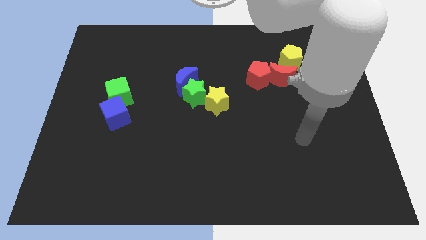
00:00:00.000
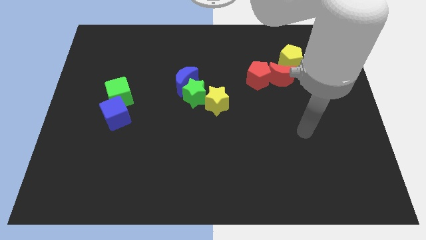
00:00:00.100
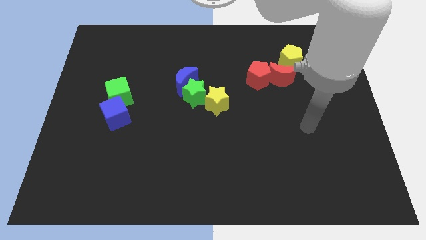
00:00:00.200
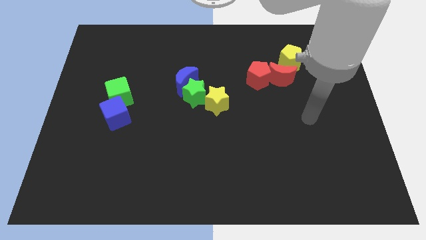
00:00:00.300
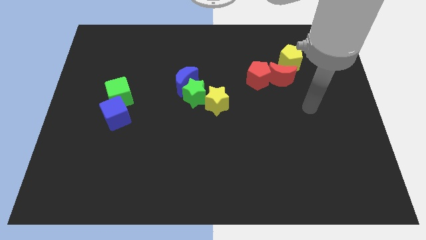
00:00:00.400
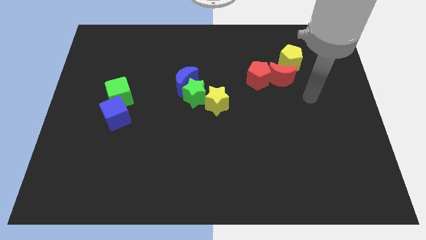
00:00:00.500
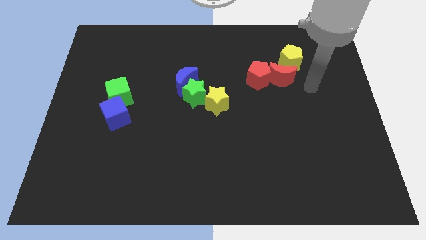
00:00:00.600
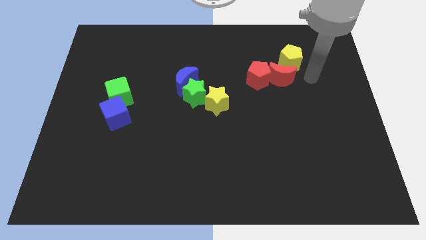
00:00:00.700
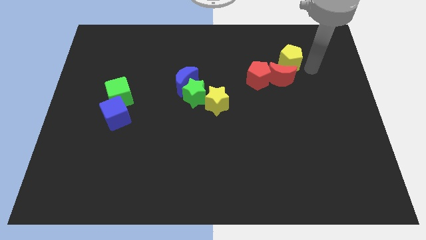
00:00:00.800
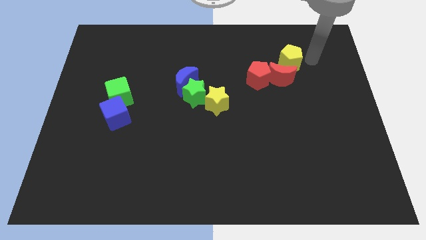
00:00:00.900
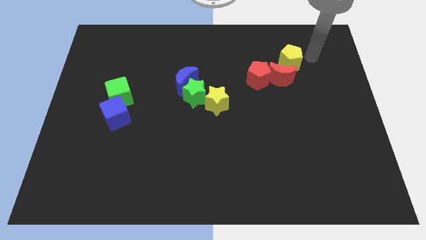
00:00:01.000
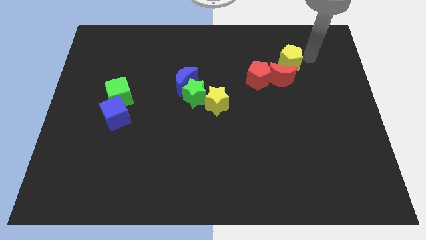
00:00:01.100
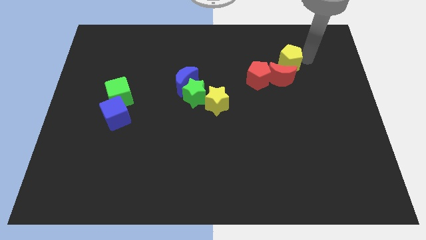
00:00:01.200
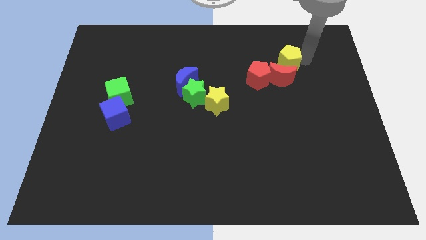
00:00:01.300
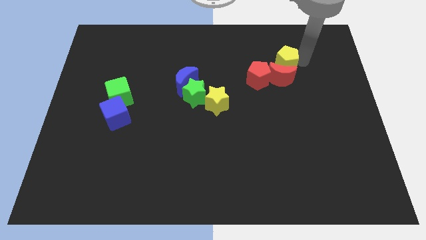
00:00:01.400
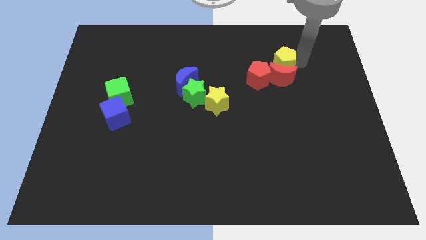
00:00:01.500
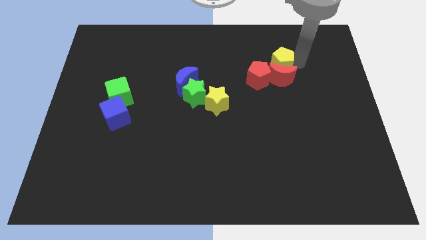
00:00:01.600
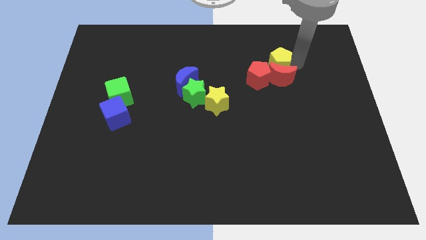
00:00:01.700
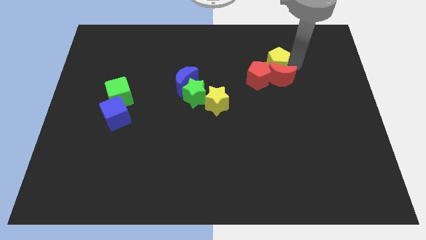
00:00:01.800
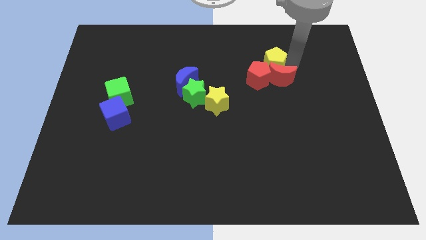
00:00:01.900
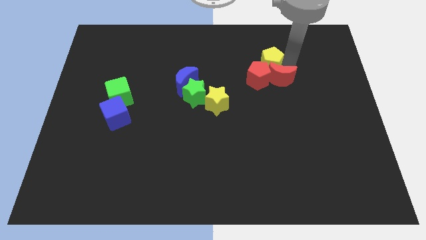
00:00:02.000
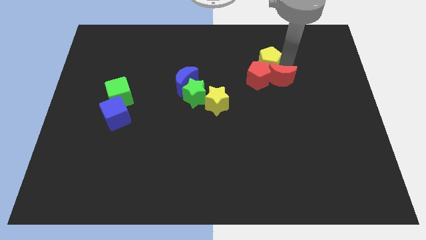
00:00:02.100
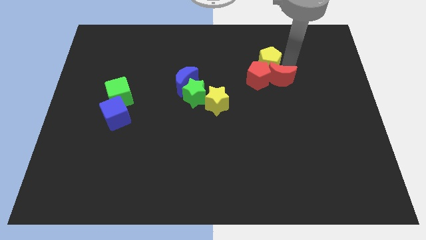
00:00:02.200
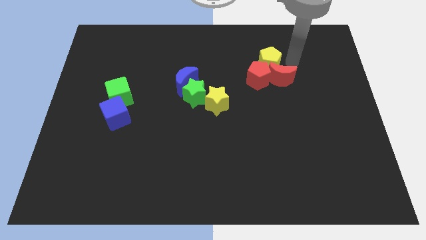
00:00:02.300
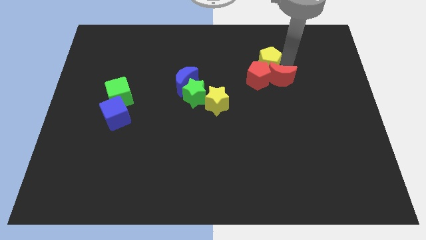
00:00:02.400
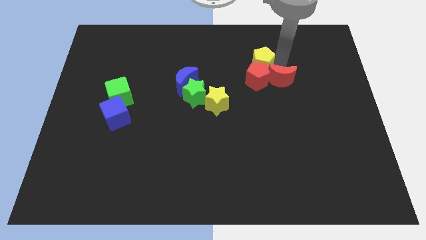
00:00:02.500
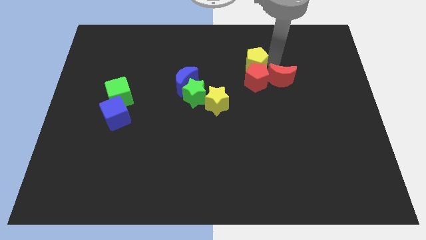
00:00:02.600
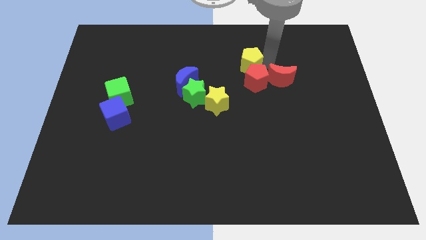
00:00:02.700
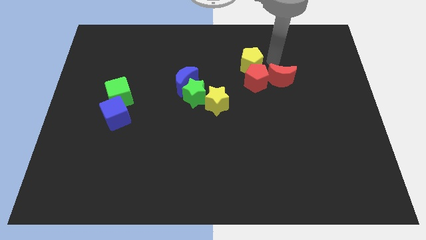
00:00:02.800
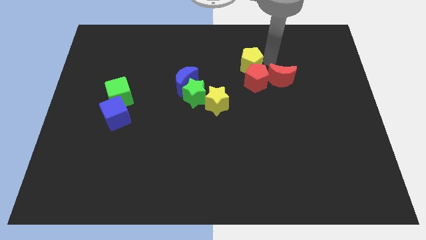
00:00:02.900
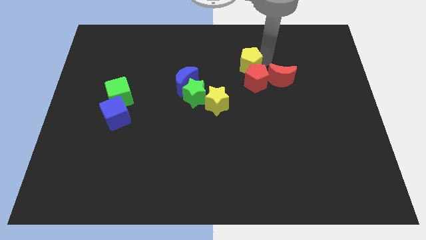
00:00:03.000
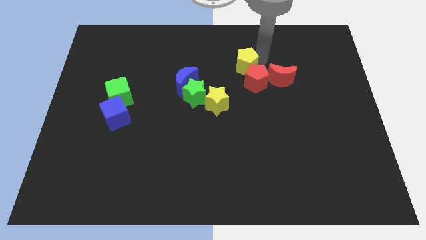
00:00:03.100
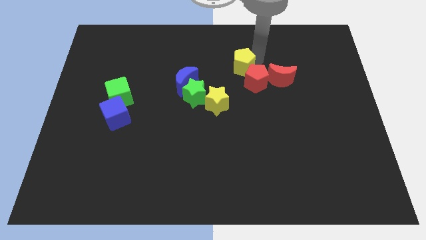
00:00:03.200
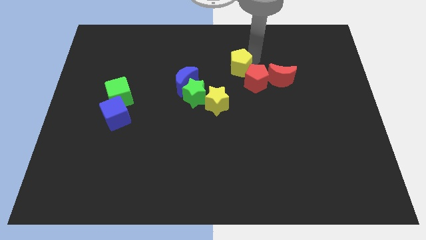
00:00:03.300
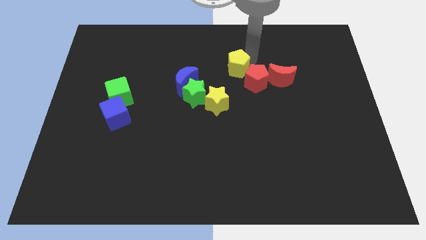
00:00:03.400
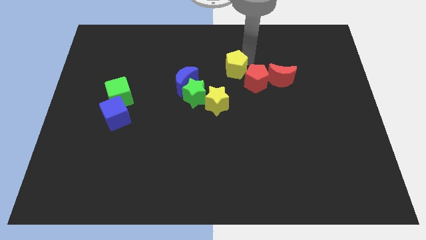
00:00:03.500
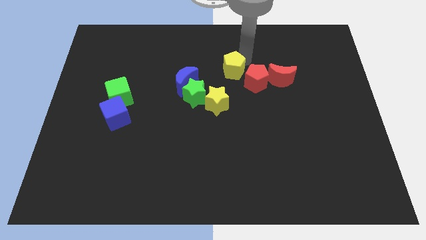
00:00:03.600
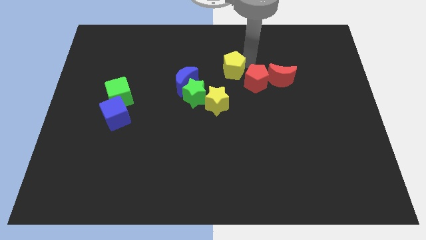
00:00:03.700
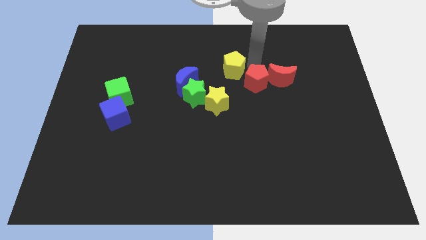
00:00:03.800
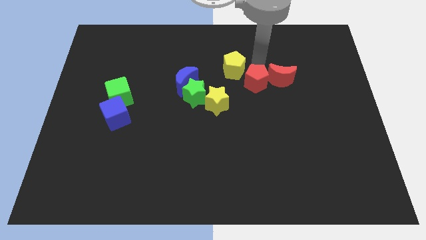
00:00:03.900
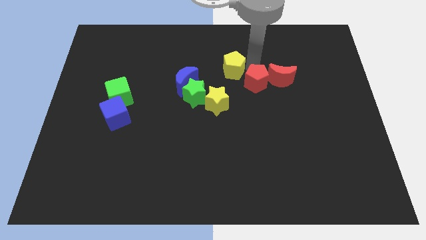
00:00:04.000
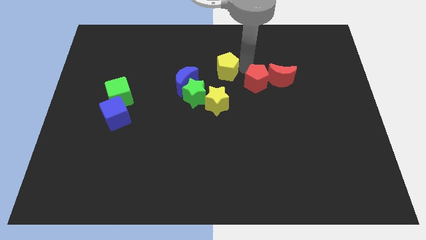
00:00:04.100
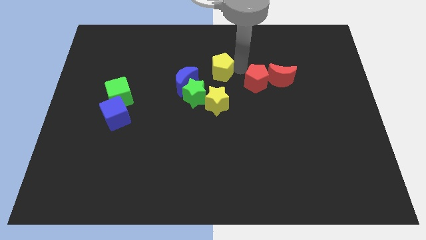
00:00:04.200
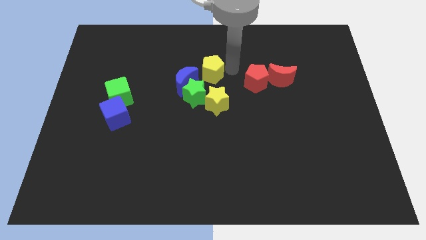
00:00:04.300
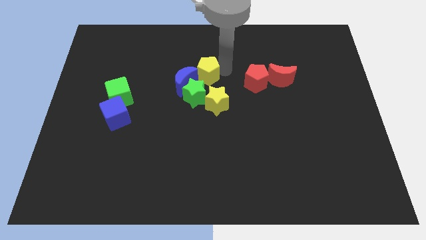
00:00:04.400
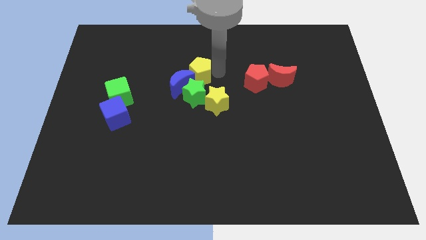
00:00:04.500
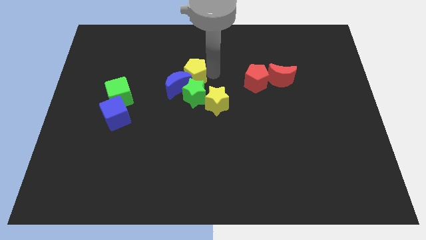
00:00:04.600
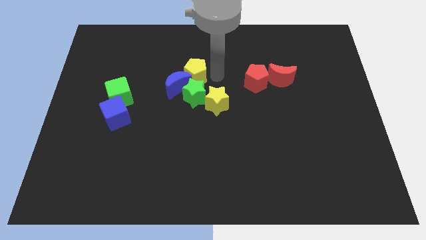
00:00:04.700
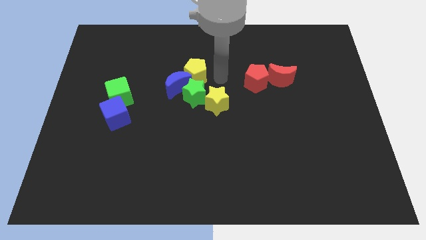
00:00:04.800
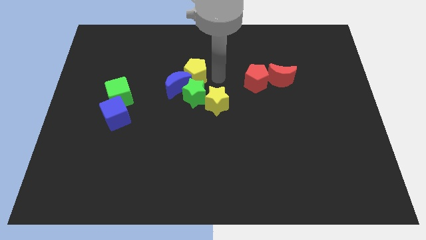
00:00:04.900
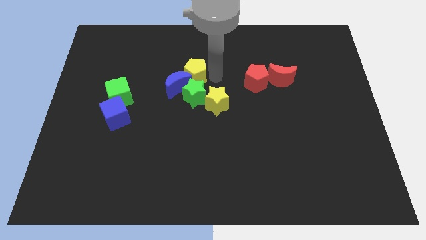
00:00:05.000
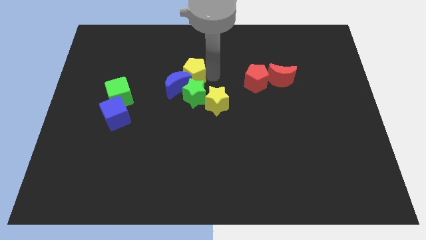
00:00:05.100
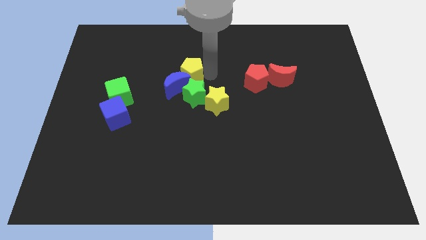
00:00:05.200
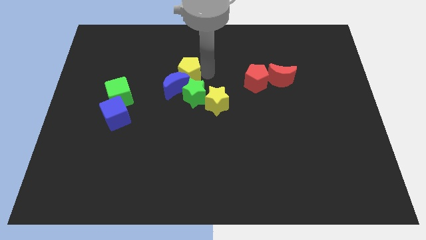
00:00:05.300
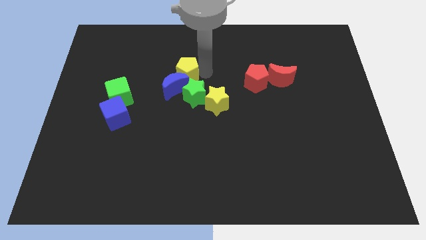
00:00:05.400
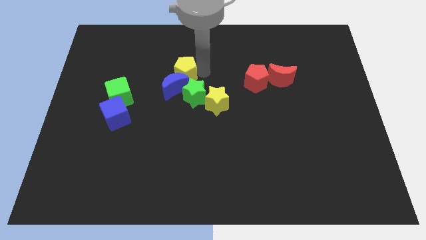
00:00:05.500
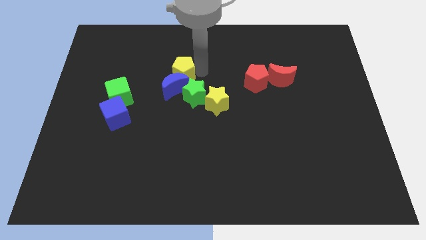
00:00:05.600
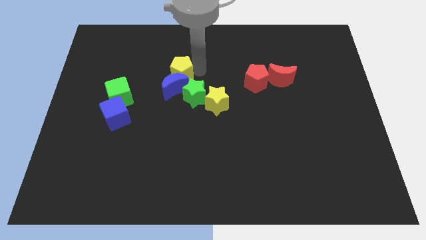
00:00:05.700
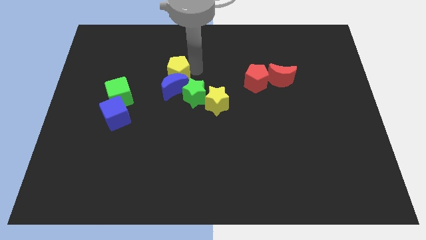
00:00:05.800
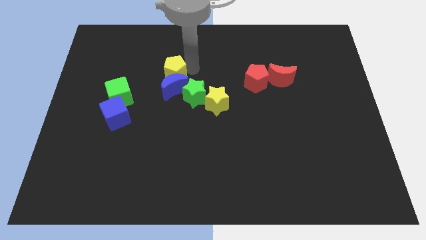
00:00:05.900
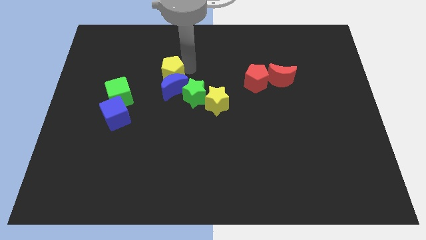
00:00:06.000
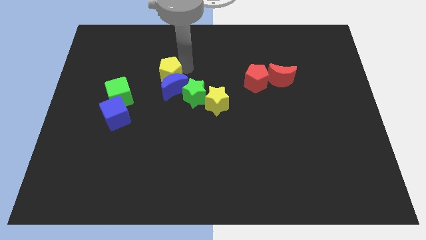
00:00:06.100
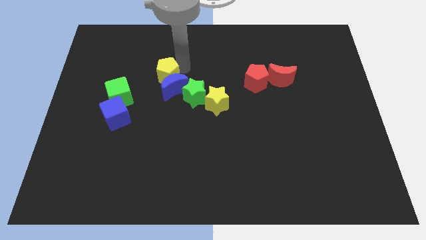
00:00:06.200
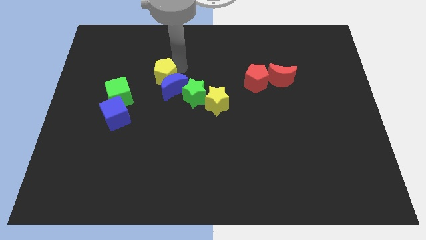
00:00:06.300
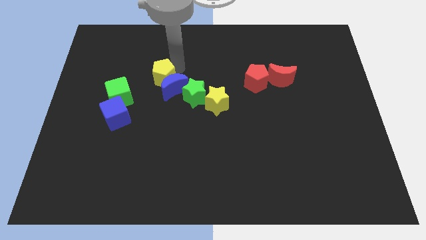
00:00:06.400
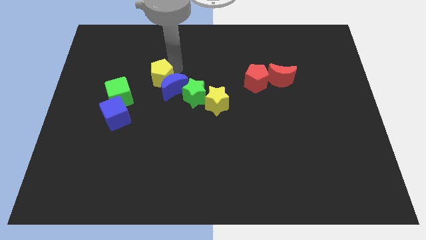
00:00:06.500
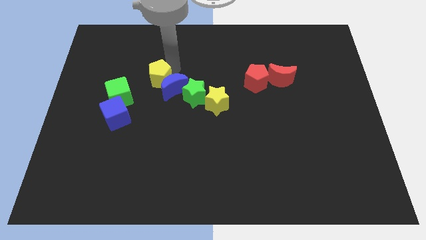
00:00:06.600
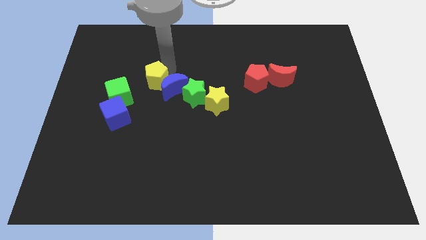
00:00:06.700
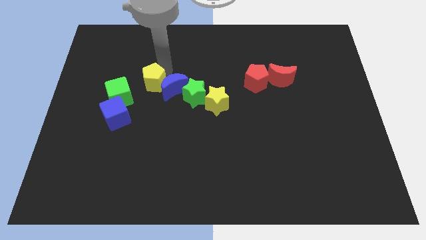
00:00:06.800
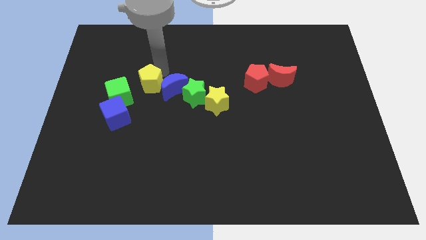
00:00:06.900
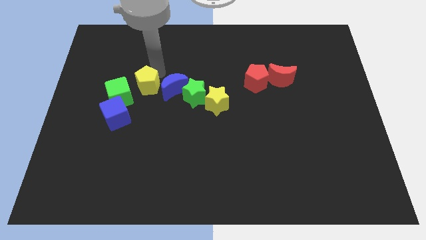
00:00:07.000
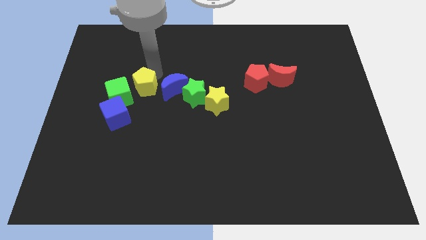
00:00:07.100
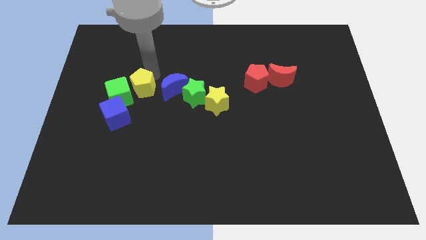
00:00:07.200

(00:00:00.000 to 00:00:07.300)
push the yellow pentagon to the green cube
